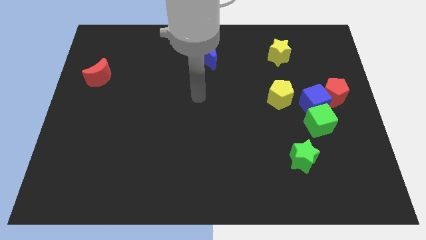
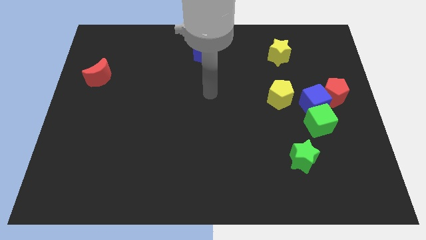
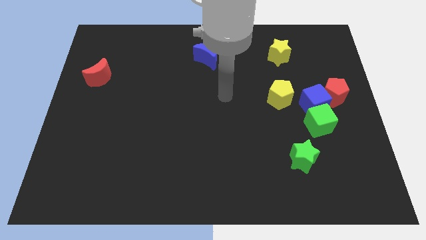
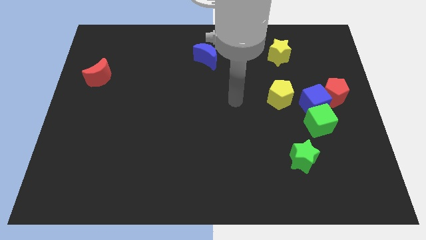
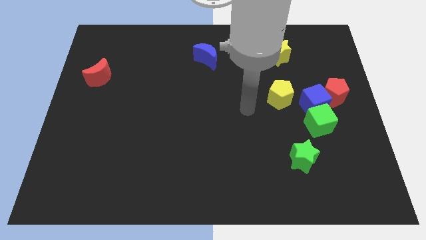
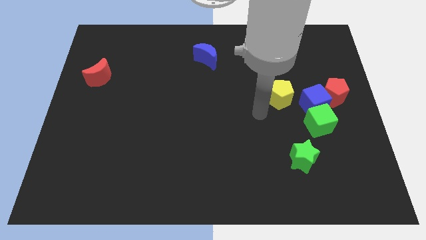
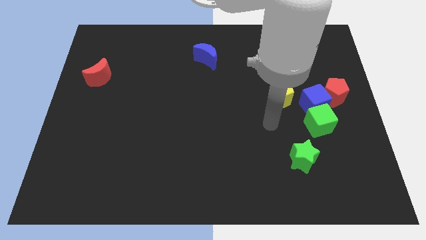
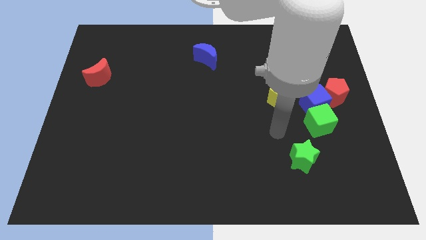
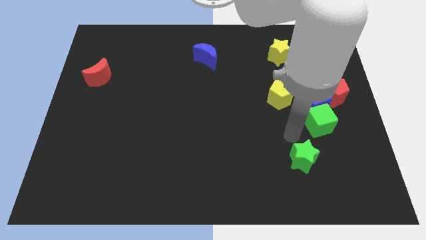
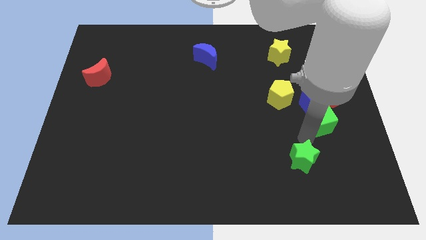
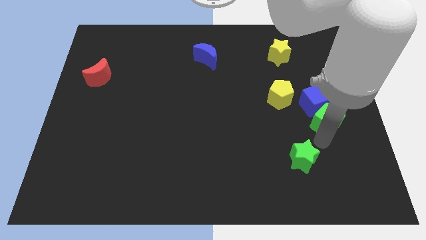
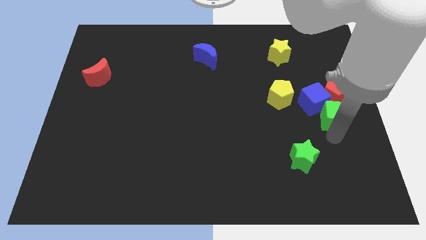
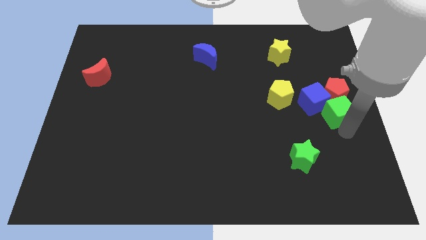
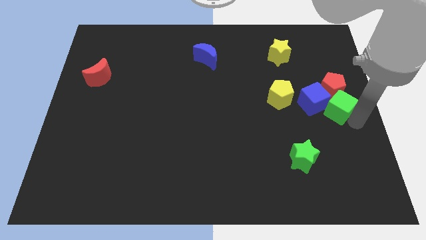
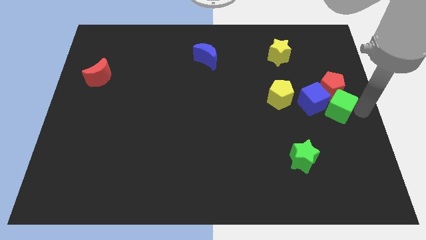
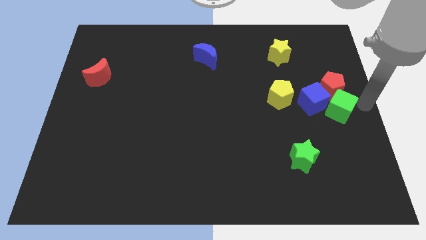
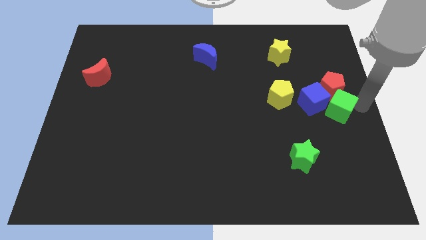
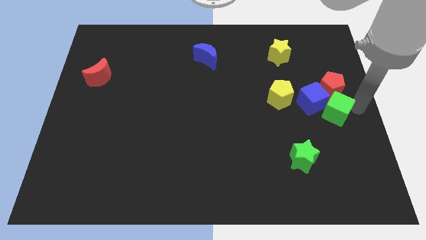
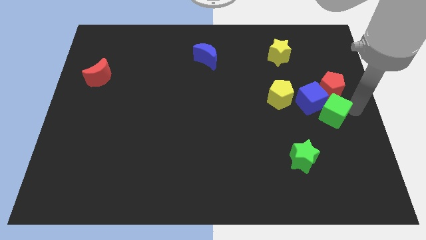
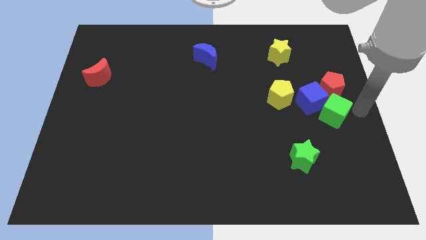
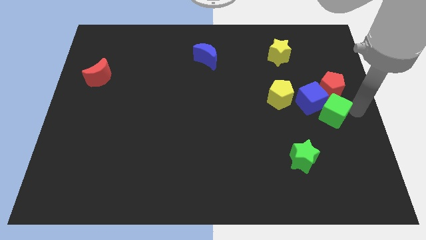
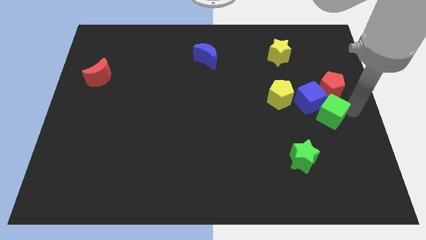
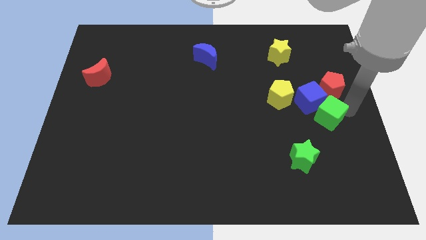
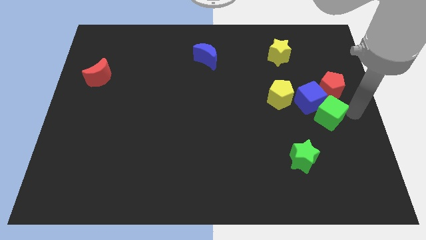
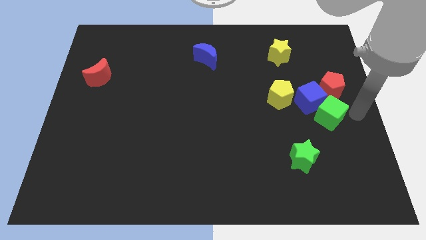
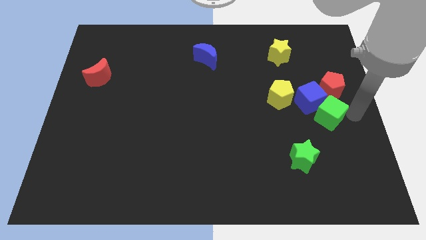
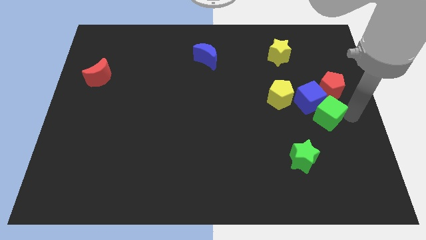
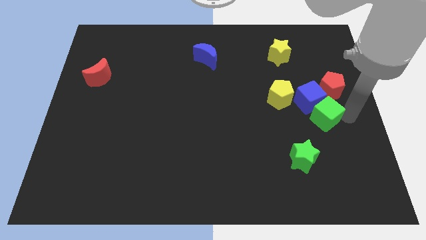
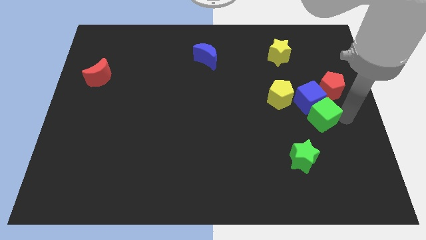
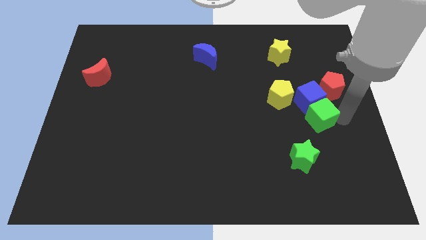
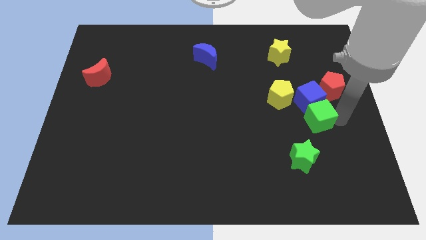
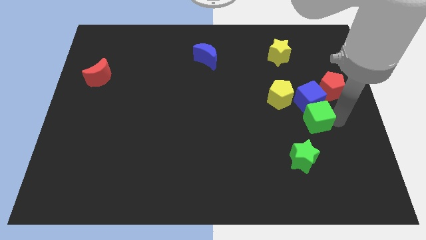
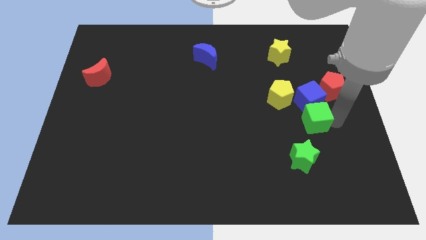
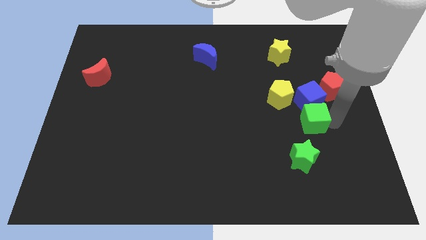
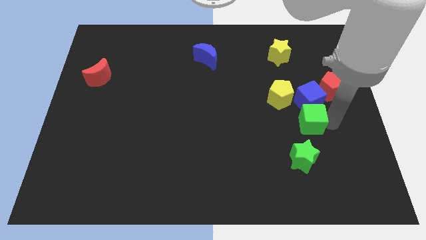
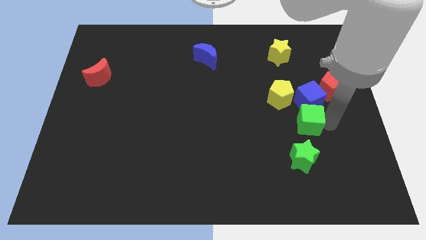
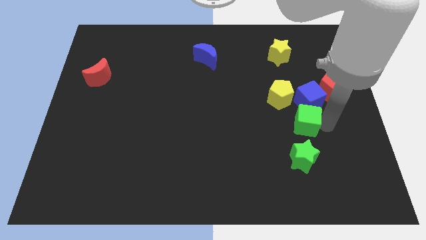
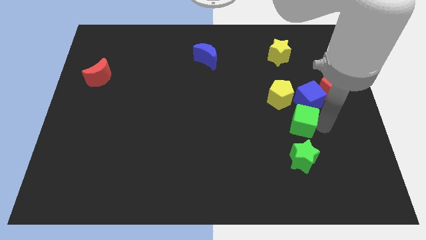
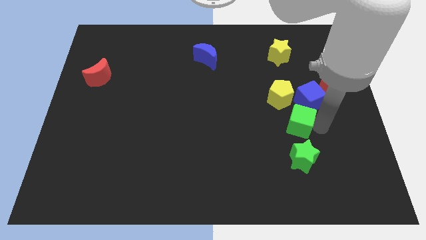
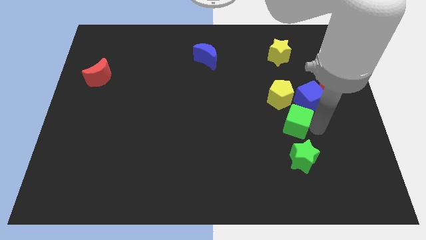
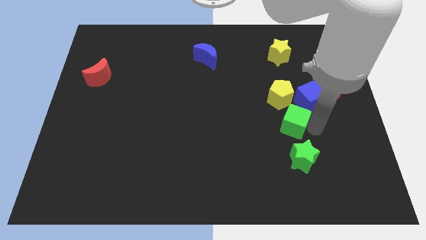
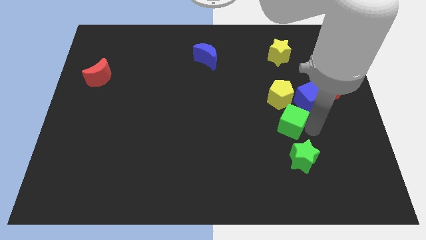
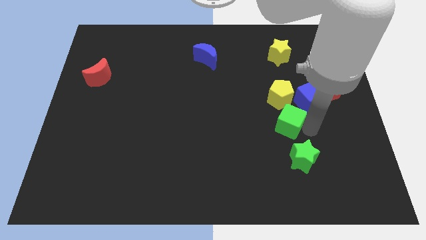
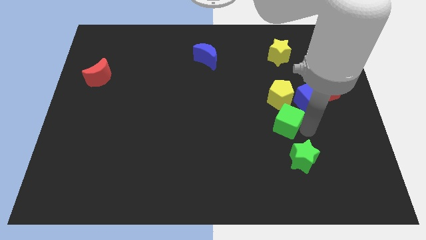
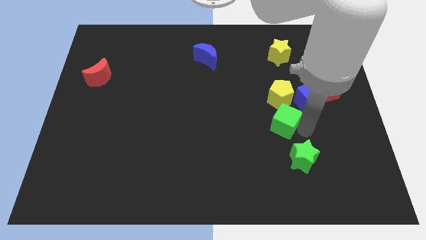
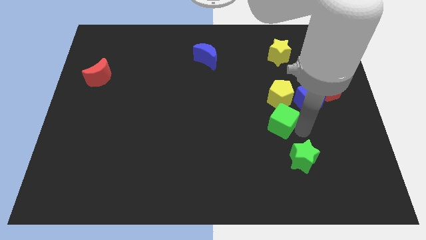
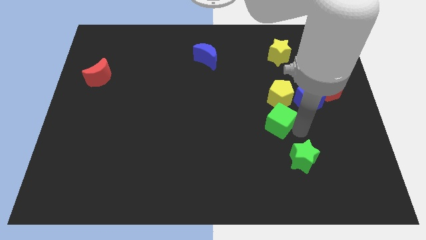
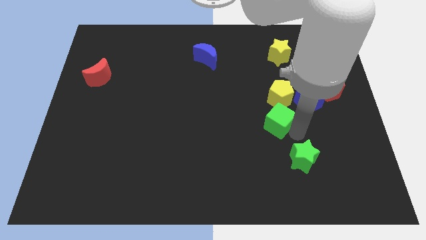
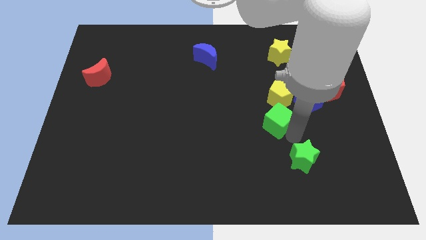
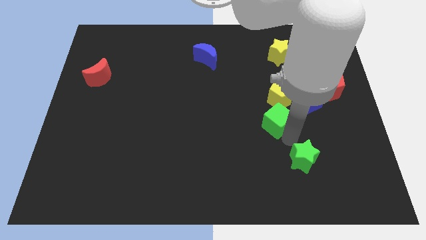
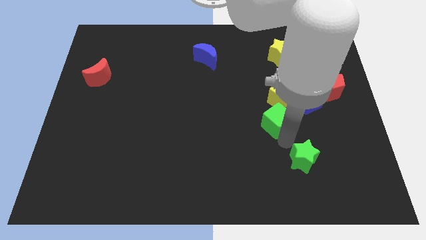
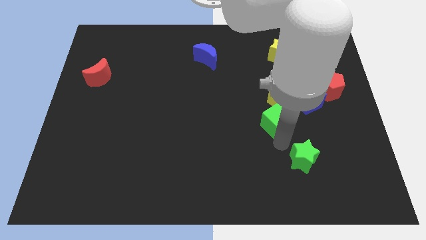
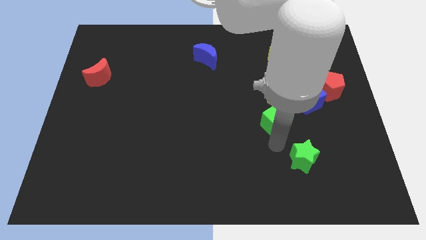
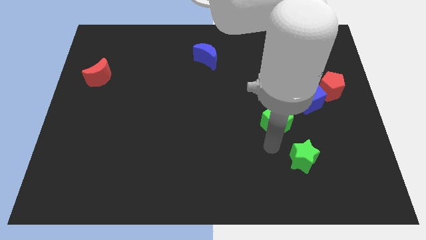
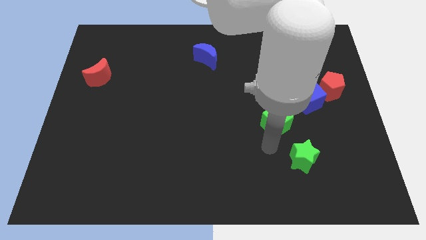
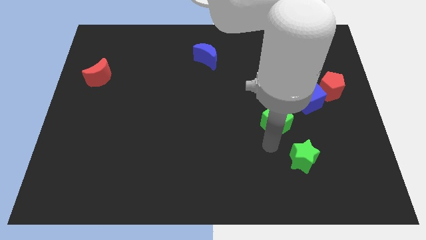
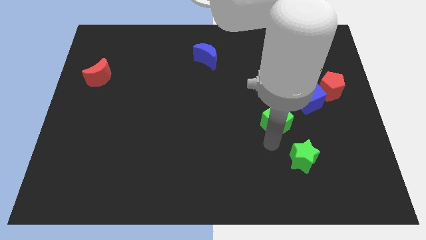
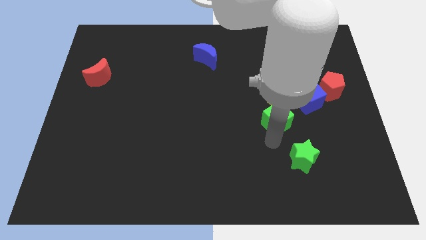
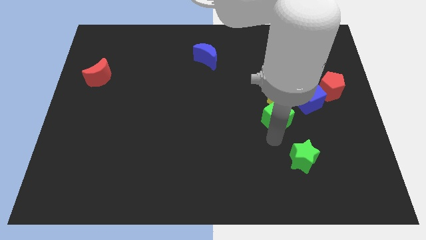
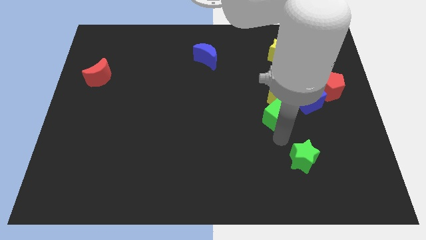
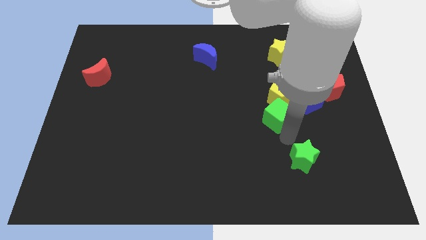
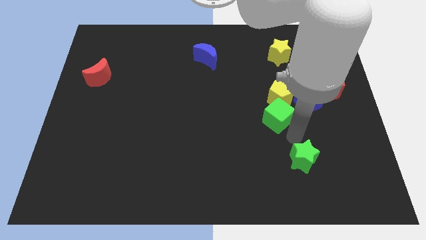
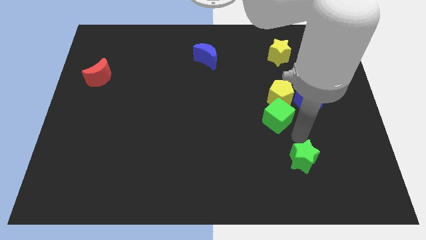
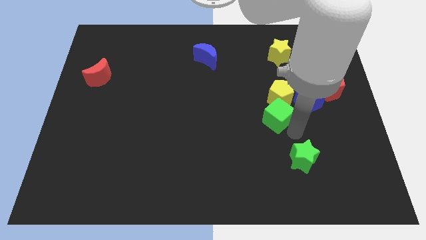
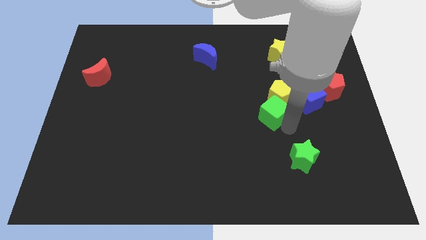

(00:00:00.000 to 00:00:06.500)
push the green cube somewhat up and to the left

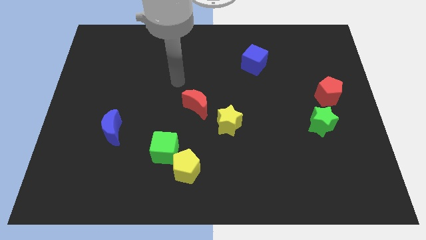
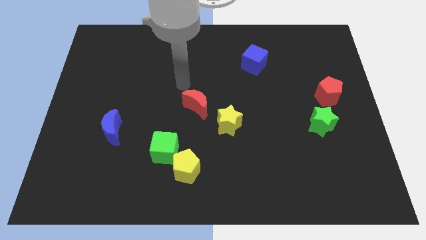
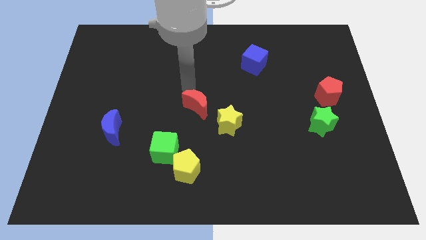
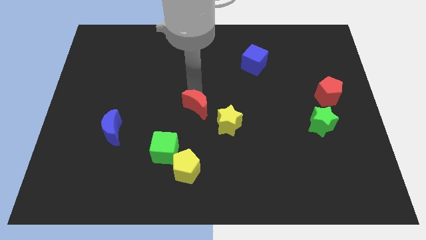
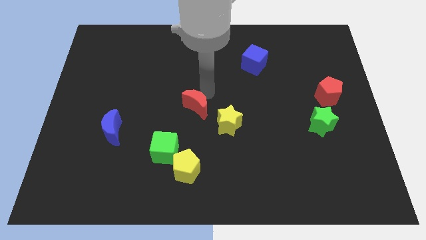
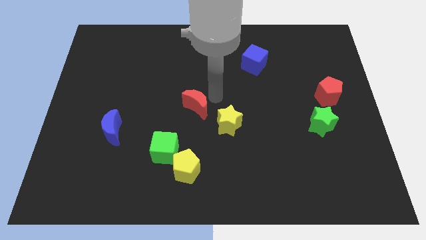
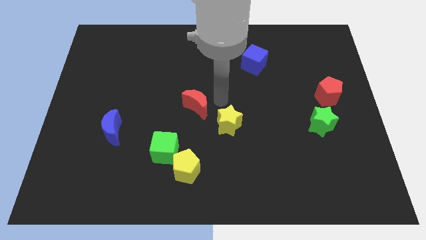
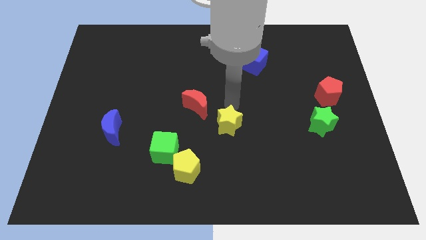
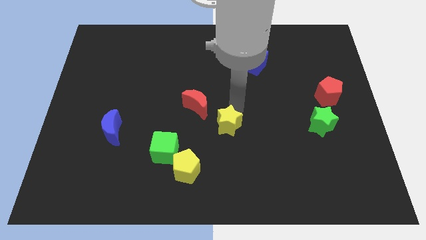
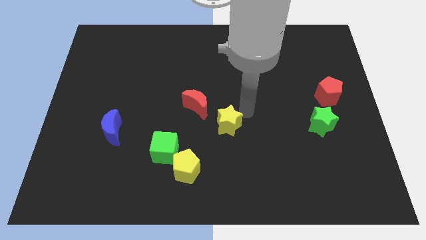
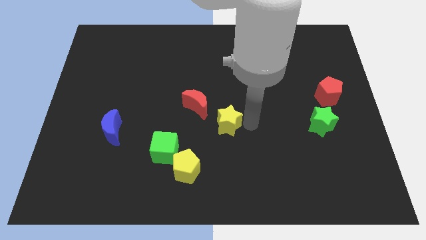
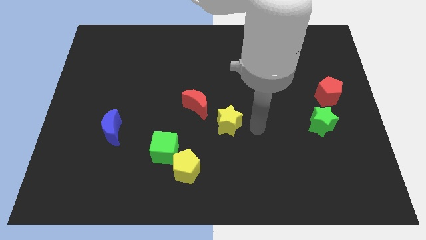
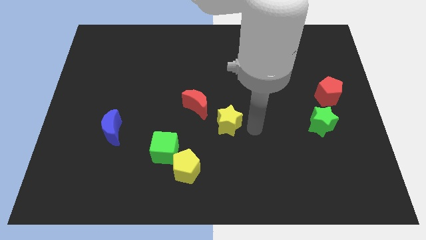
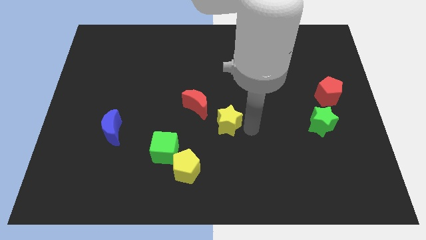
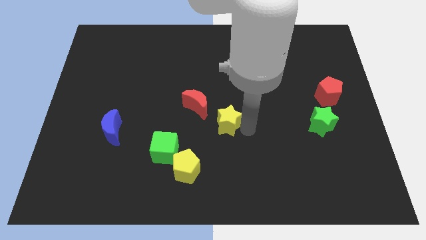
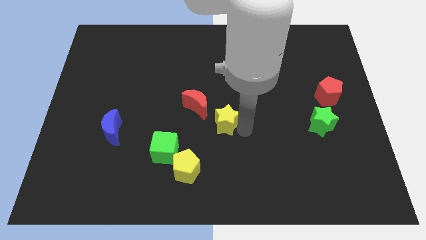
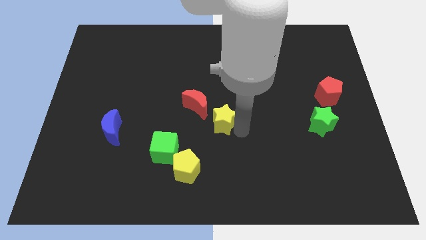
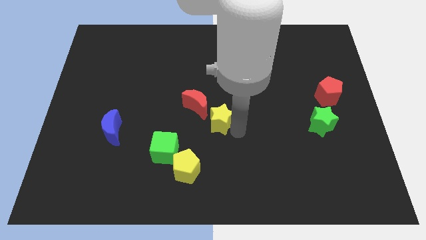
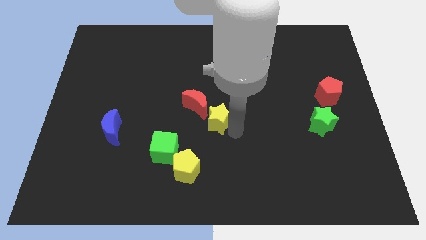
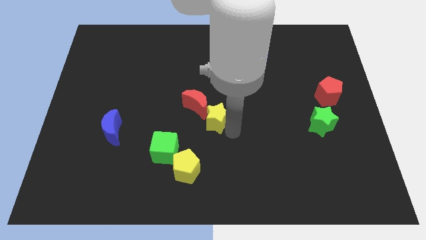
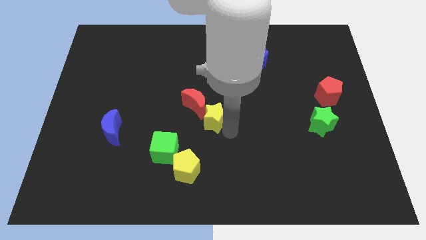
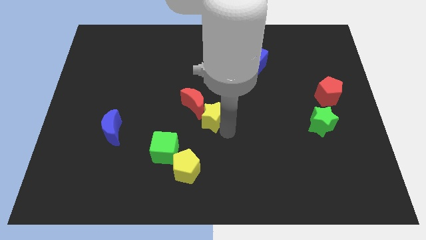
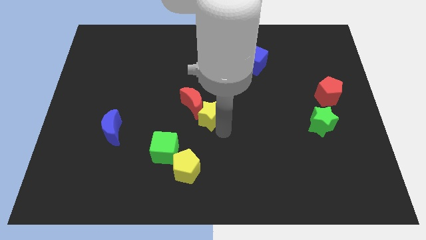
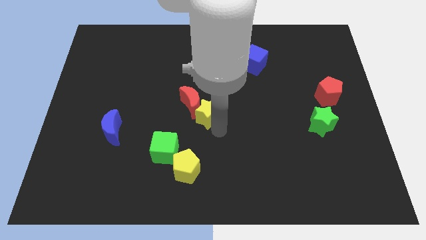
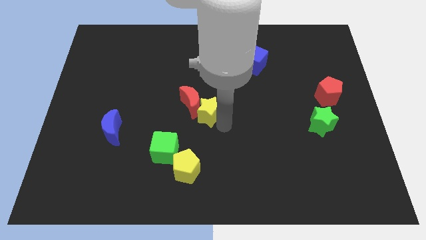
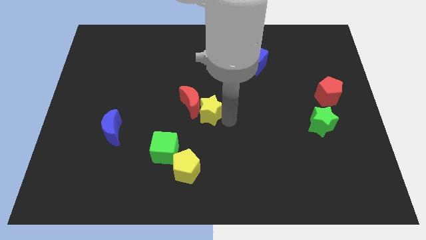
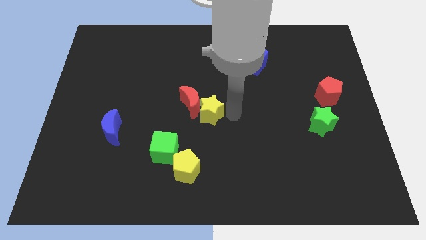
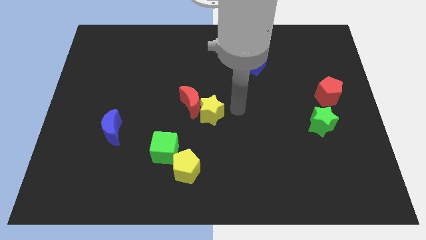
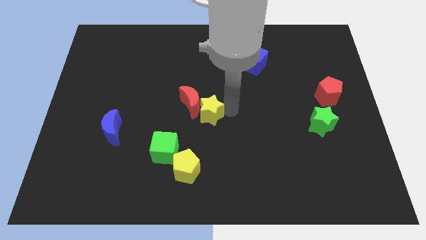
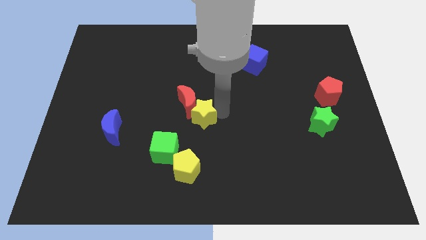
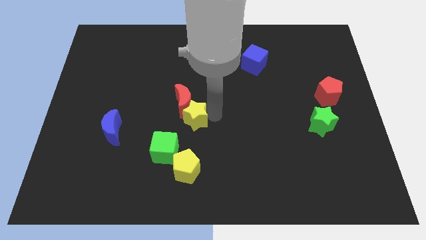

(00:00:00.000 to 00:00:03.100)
push the yellow star left slightly
